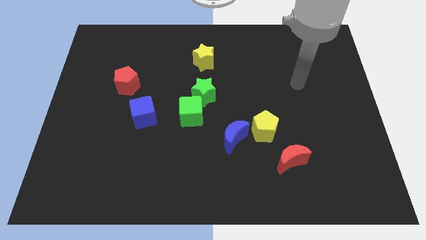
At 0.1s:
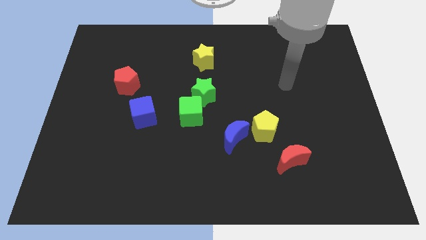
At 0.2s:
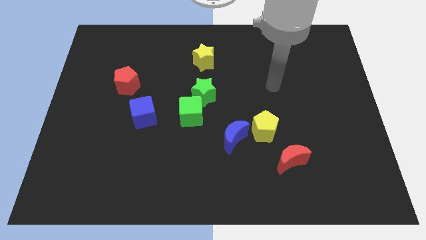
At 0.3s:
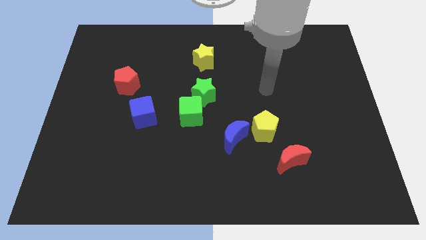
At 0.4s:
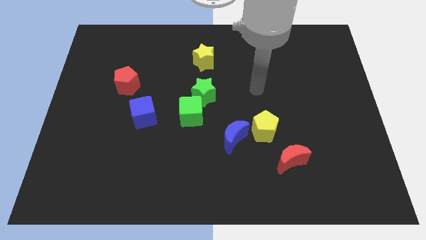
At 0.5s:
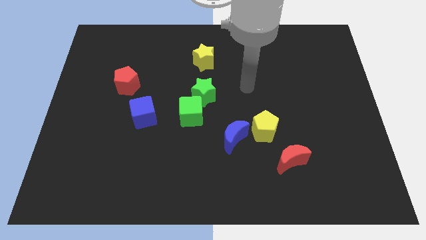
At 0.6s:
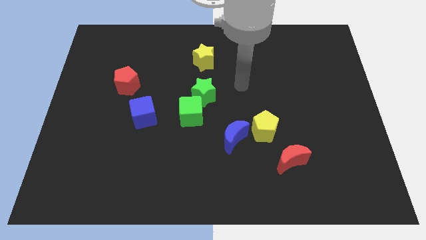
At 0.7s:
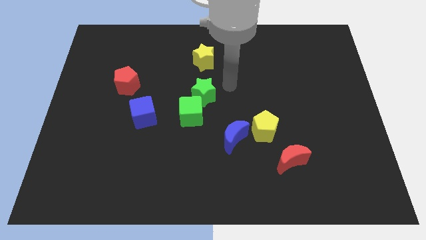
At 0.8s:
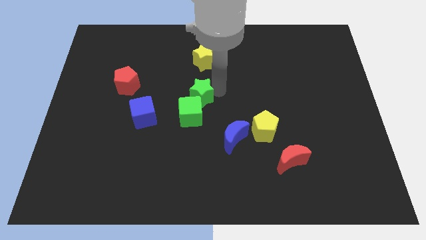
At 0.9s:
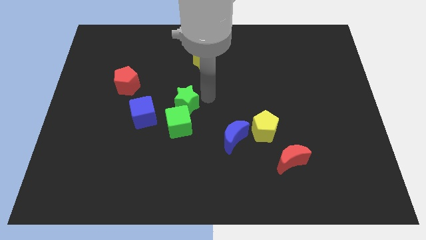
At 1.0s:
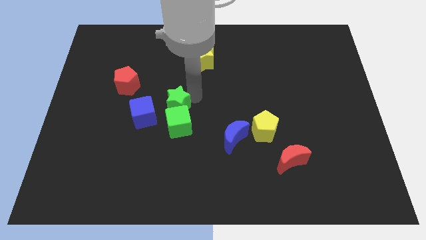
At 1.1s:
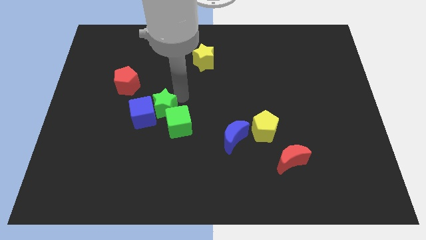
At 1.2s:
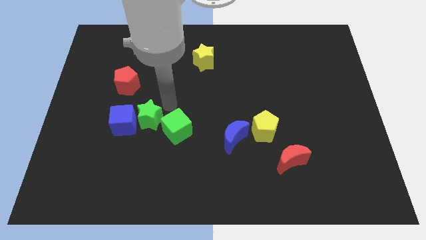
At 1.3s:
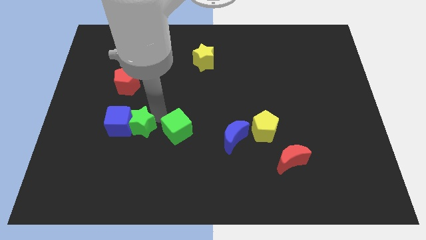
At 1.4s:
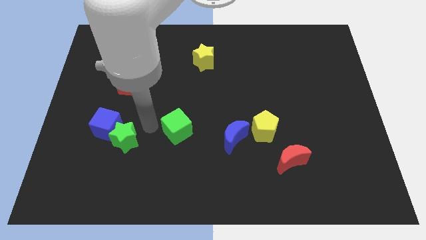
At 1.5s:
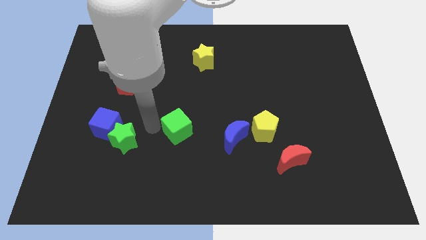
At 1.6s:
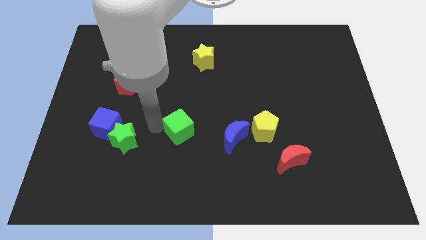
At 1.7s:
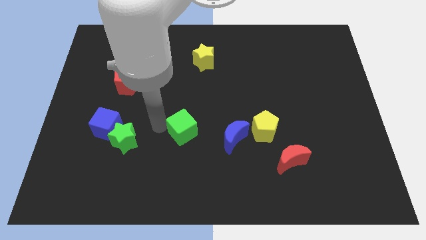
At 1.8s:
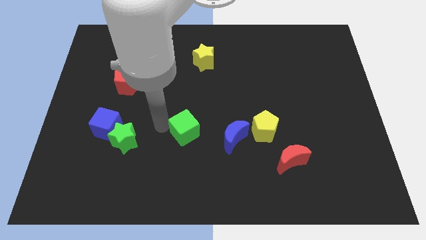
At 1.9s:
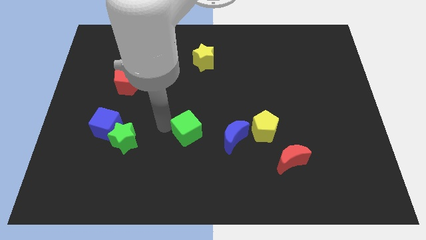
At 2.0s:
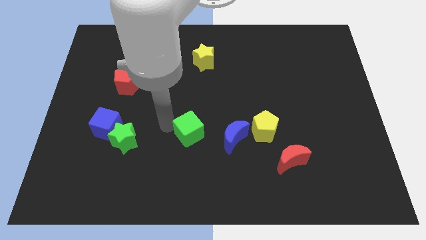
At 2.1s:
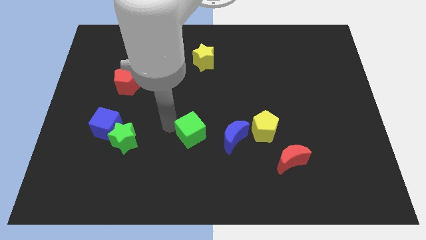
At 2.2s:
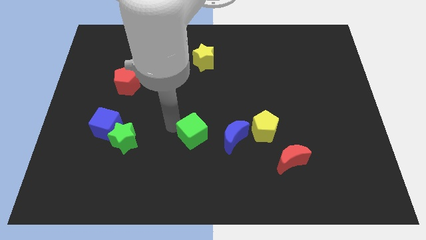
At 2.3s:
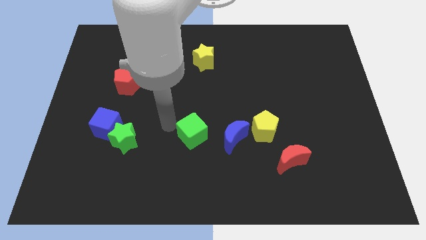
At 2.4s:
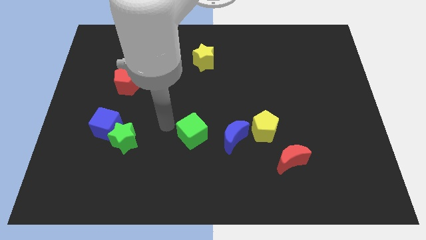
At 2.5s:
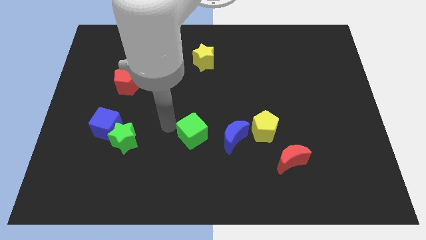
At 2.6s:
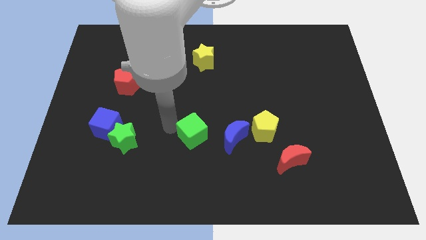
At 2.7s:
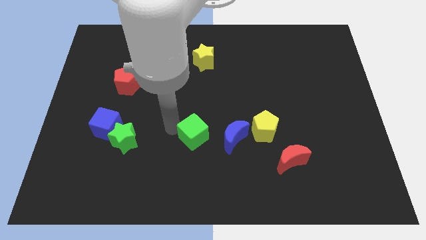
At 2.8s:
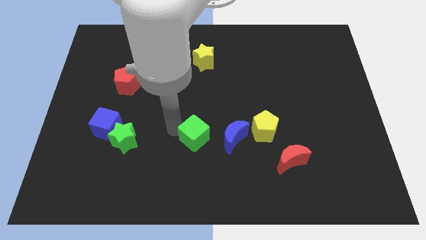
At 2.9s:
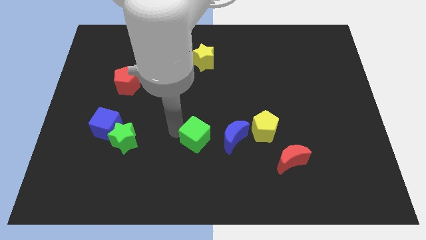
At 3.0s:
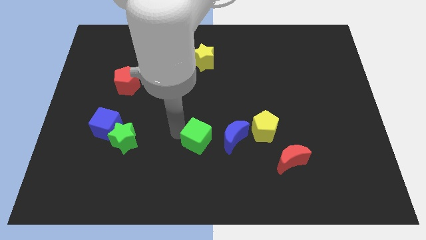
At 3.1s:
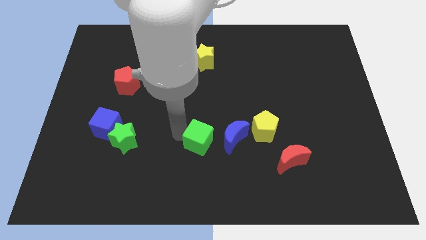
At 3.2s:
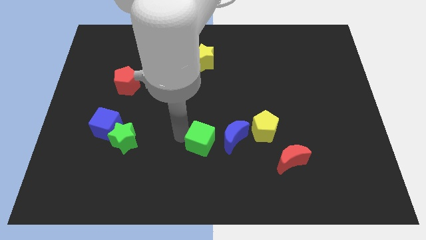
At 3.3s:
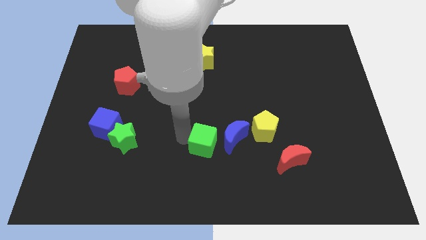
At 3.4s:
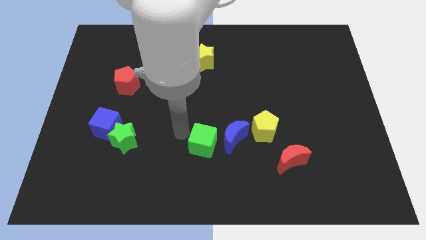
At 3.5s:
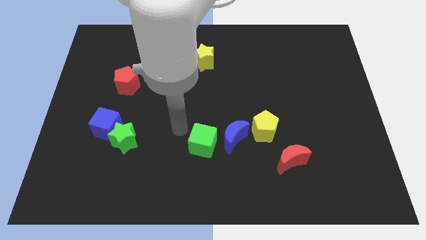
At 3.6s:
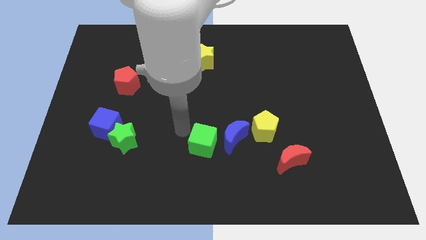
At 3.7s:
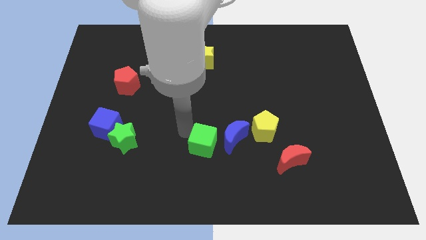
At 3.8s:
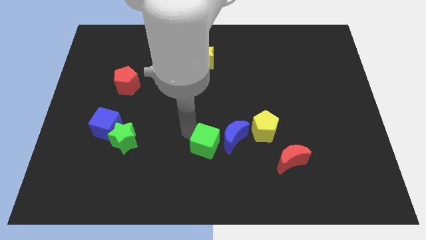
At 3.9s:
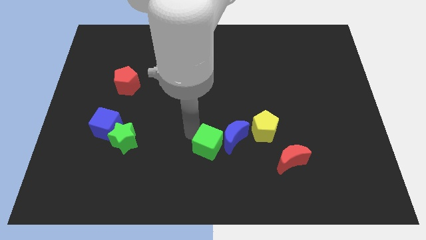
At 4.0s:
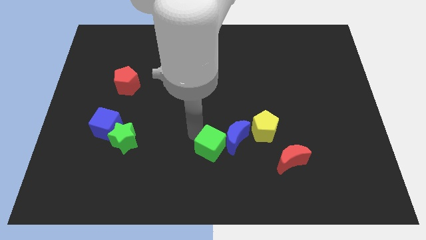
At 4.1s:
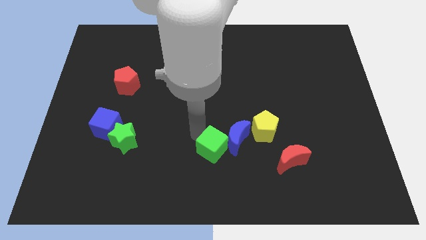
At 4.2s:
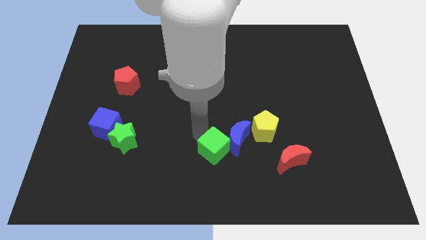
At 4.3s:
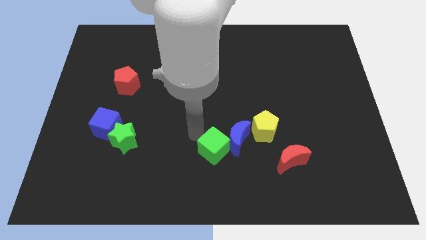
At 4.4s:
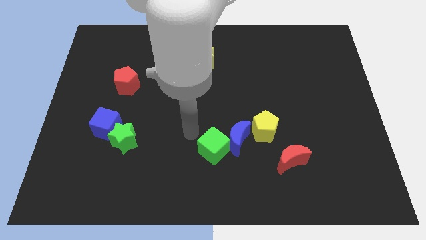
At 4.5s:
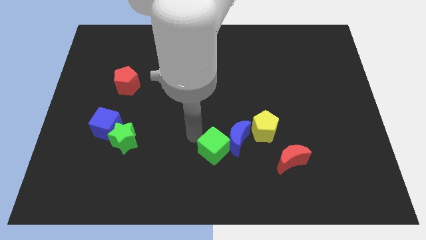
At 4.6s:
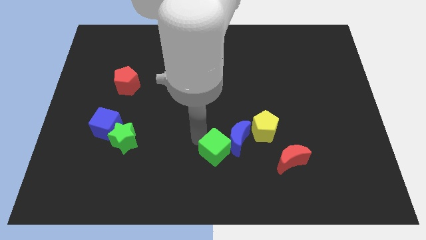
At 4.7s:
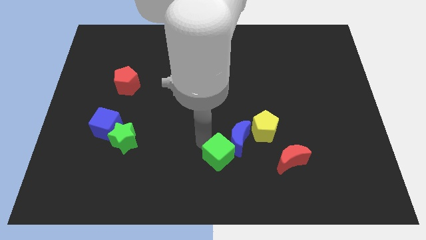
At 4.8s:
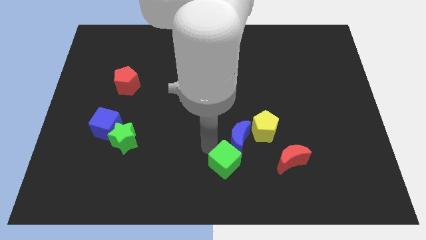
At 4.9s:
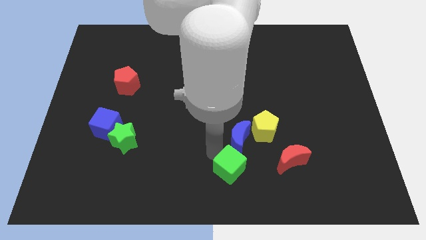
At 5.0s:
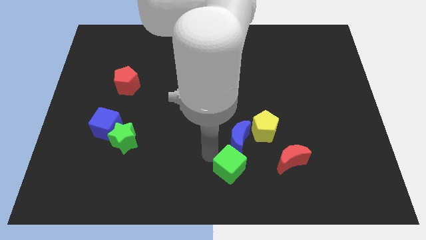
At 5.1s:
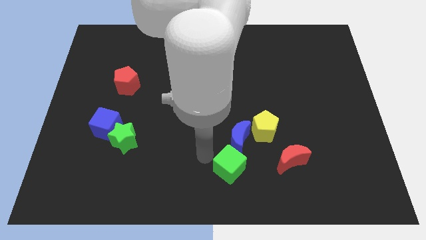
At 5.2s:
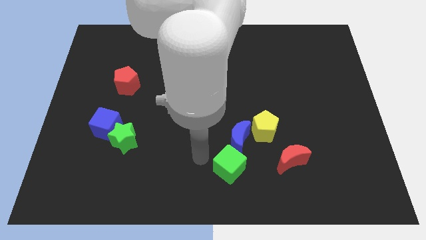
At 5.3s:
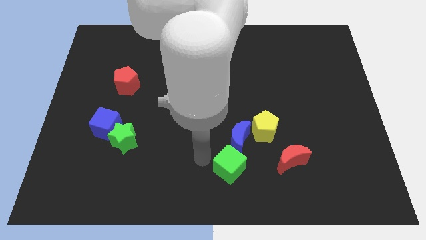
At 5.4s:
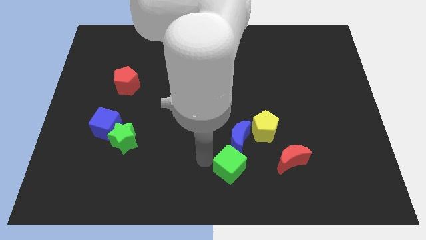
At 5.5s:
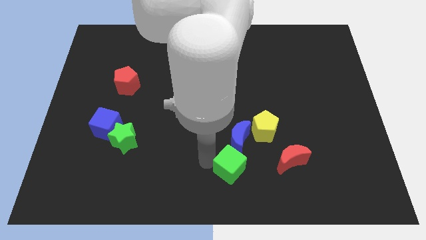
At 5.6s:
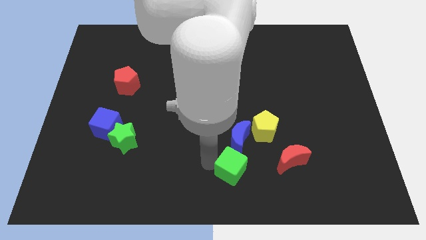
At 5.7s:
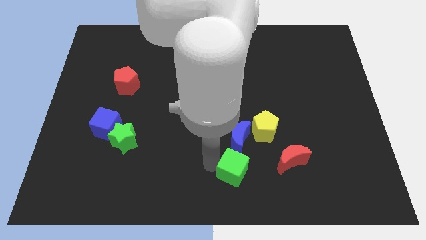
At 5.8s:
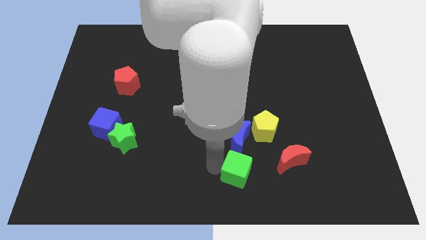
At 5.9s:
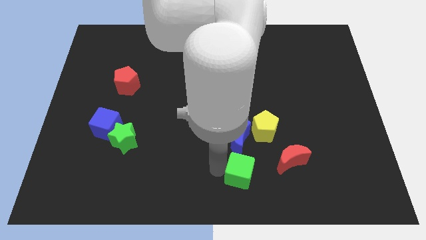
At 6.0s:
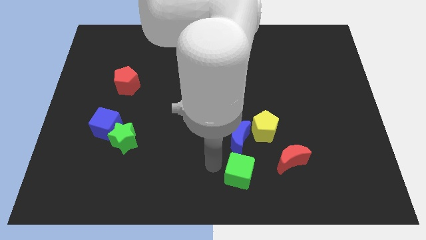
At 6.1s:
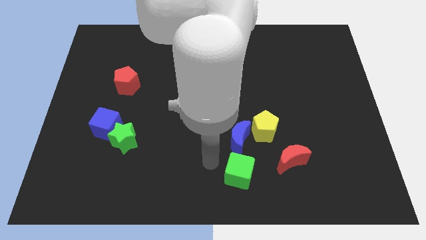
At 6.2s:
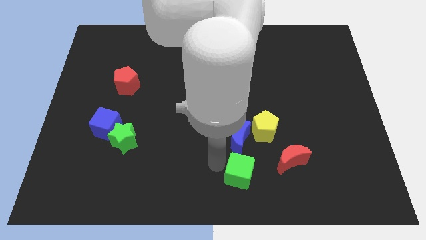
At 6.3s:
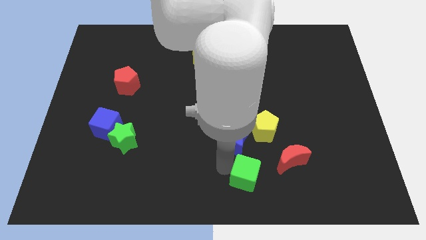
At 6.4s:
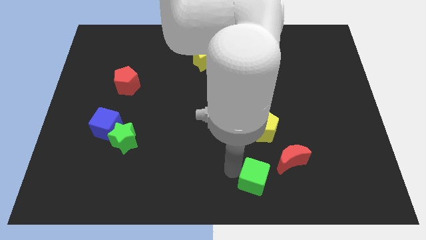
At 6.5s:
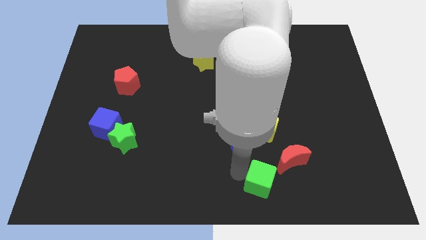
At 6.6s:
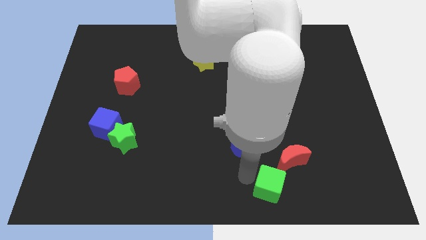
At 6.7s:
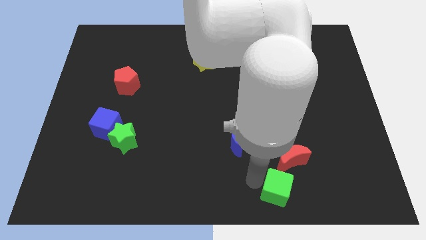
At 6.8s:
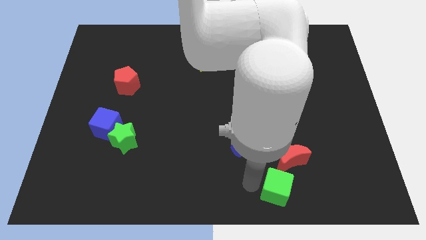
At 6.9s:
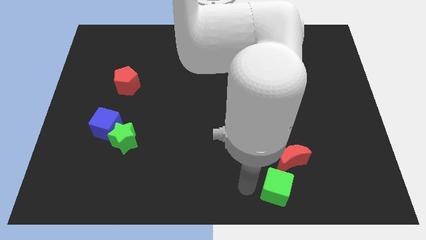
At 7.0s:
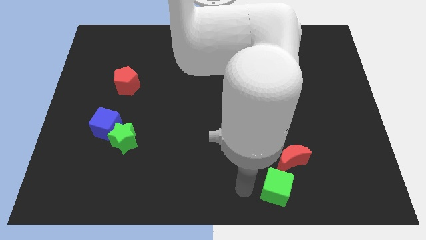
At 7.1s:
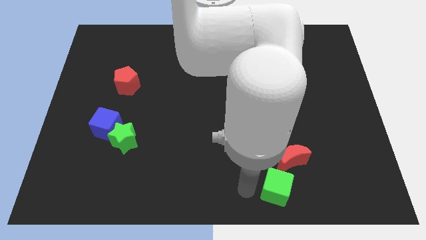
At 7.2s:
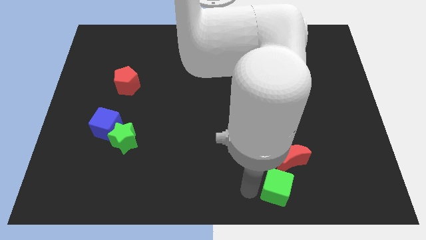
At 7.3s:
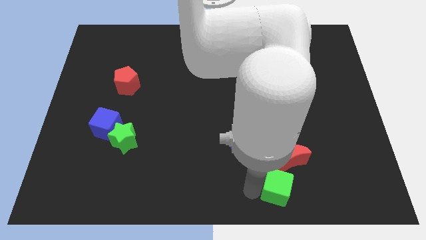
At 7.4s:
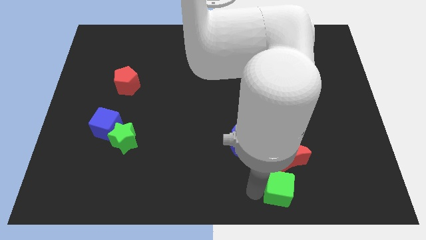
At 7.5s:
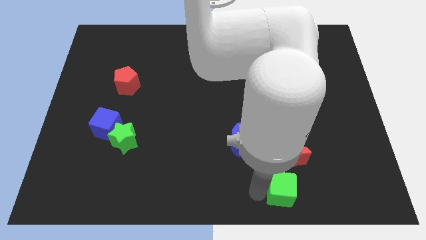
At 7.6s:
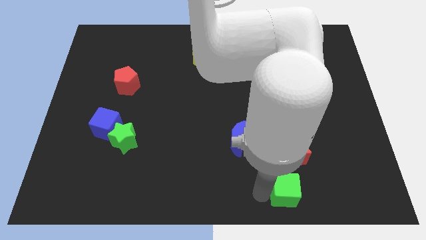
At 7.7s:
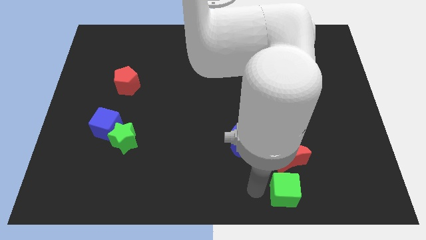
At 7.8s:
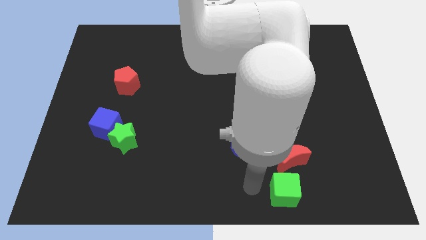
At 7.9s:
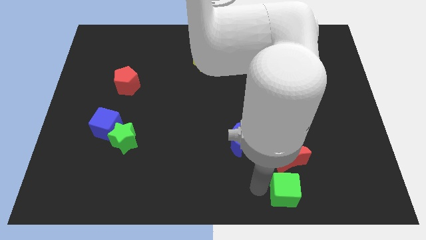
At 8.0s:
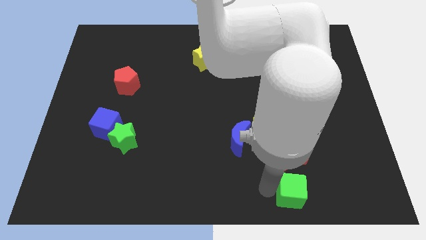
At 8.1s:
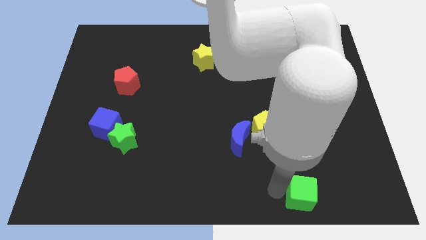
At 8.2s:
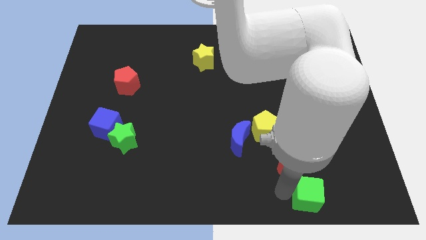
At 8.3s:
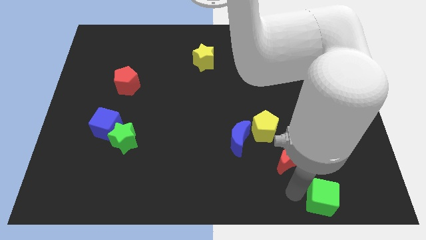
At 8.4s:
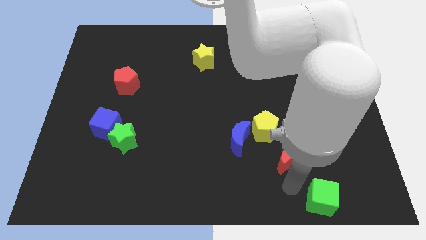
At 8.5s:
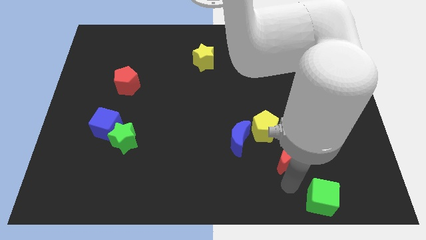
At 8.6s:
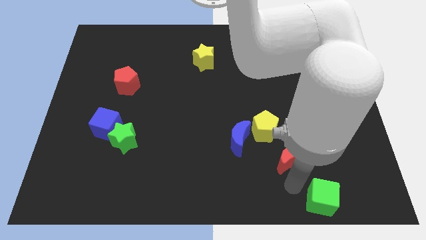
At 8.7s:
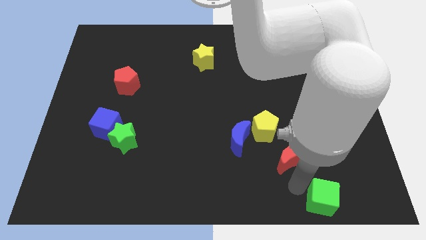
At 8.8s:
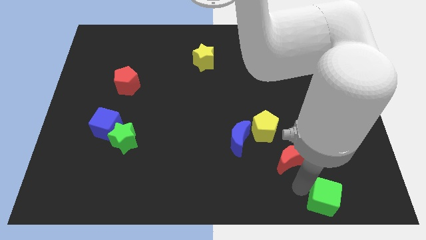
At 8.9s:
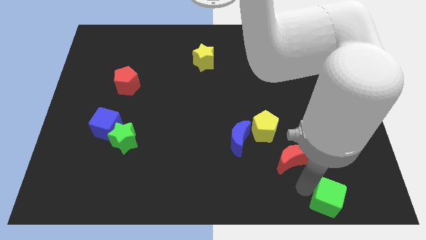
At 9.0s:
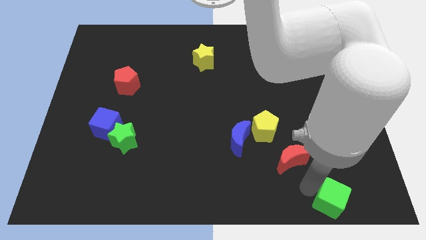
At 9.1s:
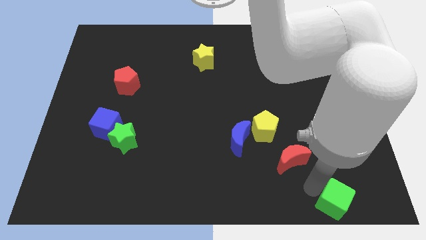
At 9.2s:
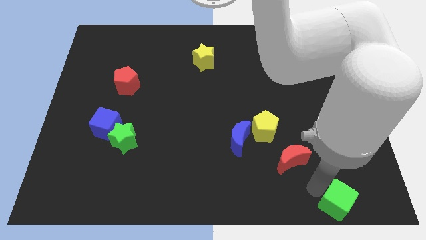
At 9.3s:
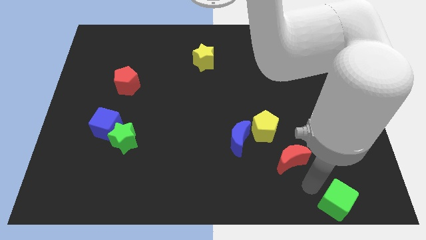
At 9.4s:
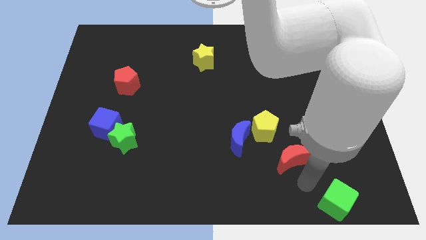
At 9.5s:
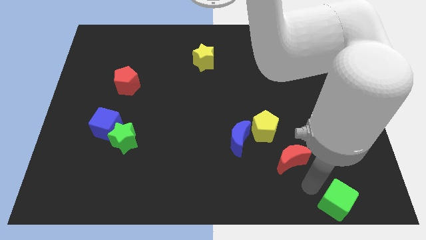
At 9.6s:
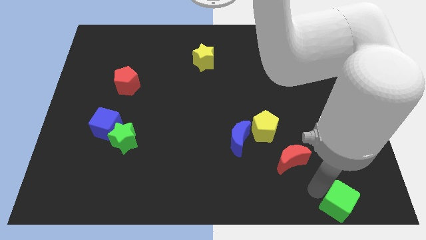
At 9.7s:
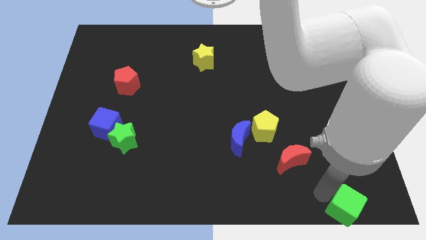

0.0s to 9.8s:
move the green cube to the bottom right of the board
